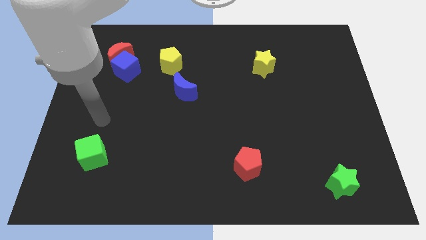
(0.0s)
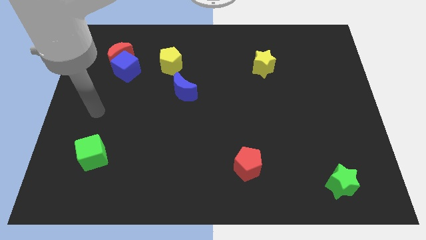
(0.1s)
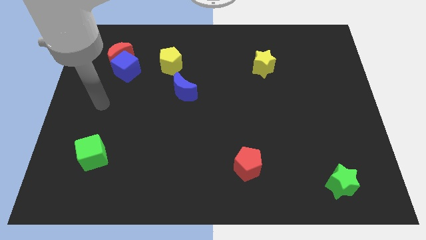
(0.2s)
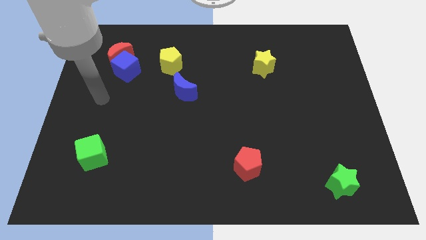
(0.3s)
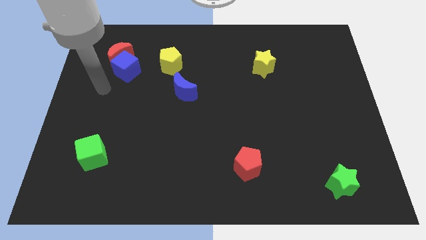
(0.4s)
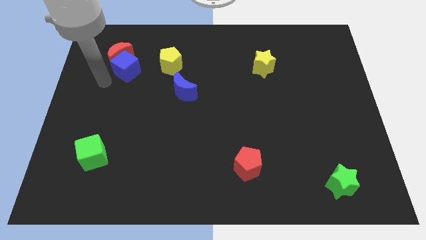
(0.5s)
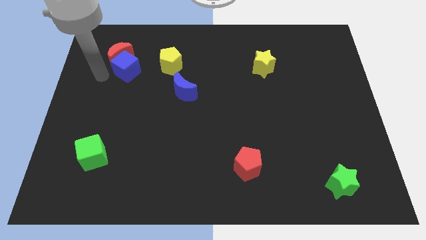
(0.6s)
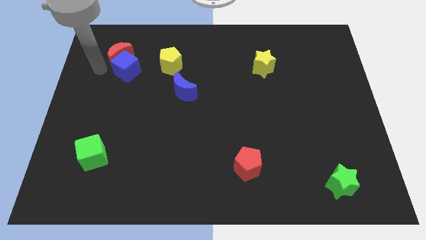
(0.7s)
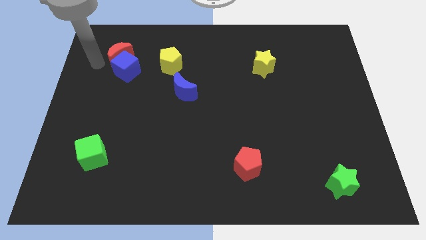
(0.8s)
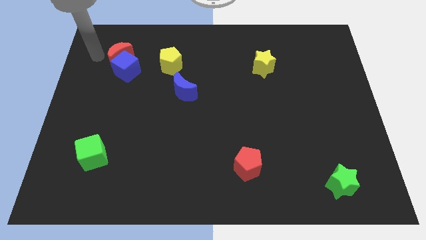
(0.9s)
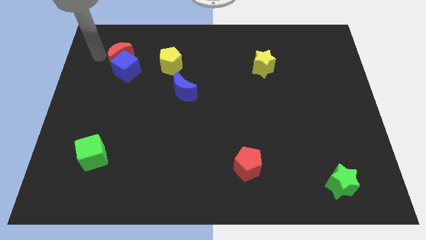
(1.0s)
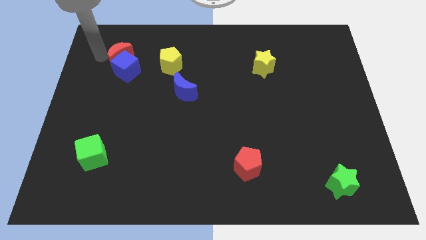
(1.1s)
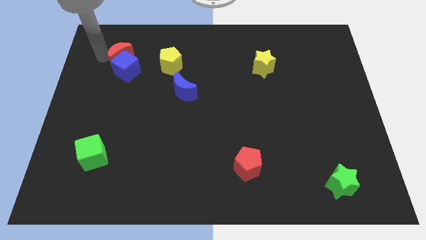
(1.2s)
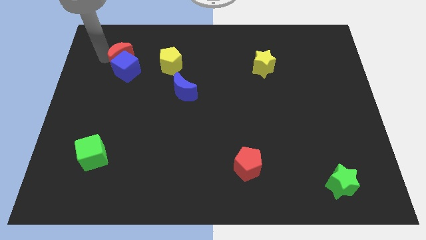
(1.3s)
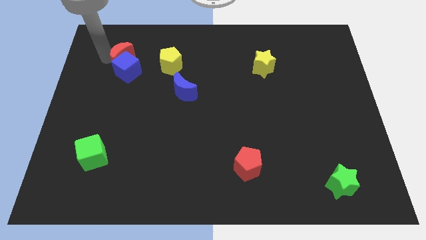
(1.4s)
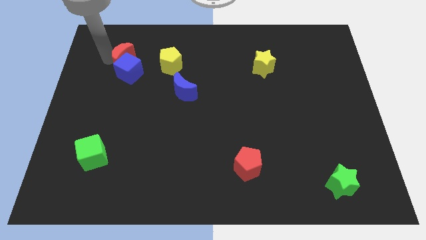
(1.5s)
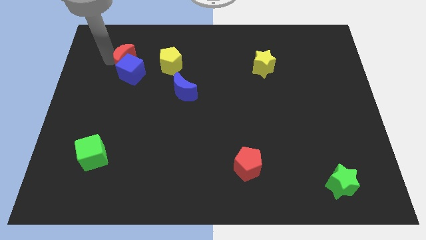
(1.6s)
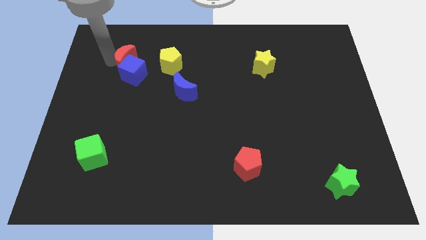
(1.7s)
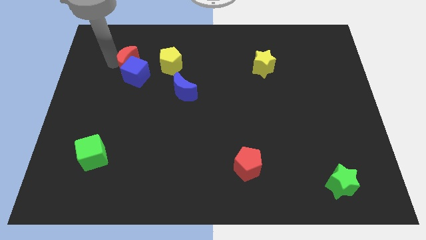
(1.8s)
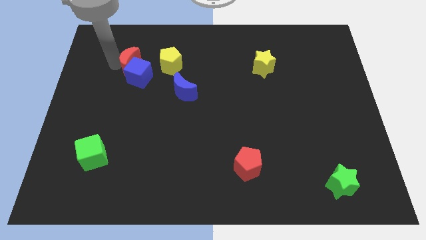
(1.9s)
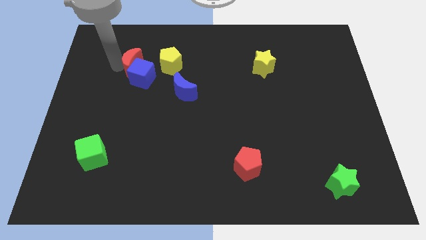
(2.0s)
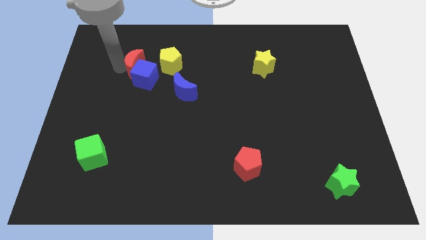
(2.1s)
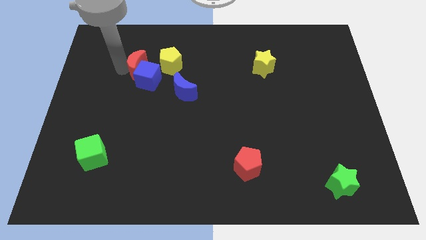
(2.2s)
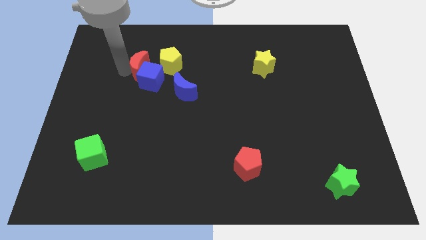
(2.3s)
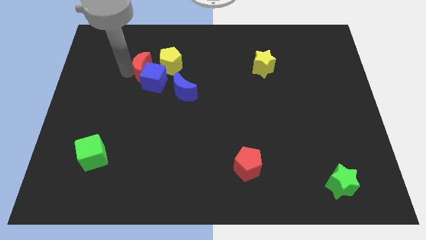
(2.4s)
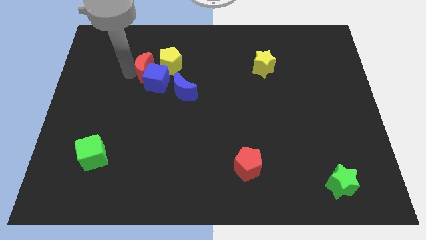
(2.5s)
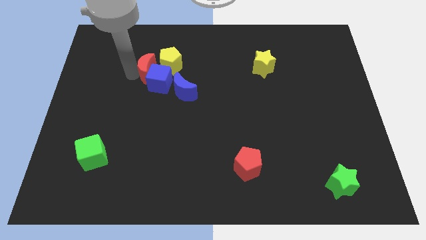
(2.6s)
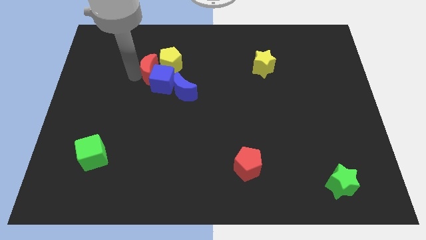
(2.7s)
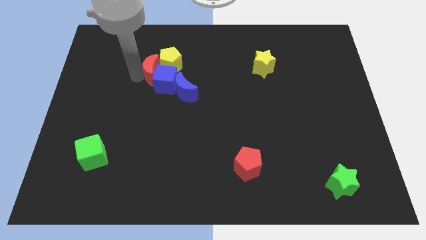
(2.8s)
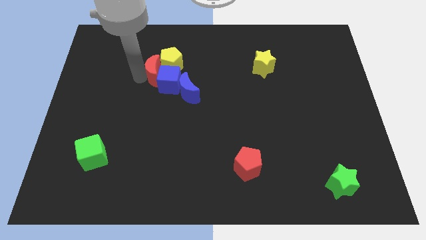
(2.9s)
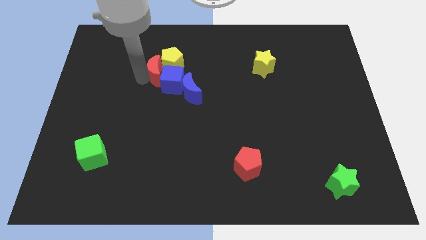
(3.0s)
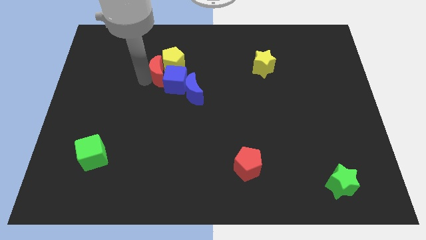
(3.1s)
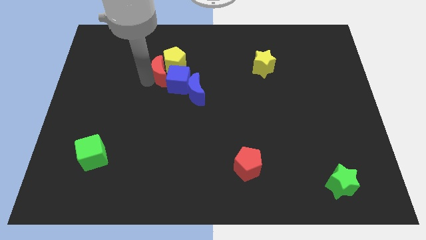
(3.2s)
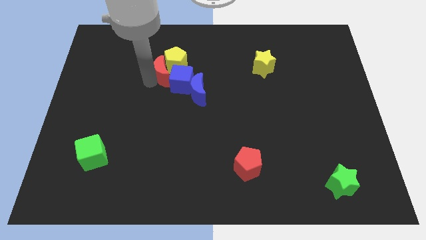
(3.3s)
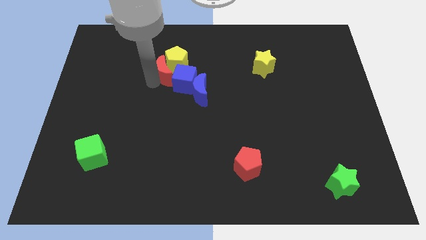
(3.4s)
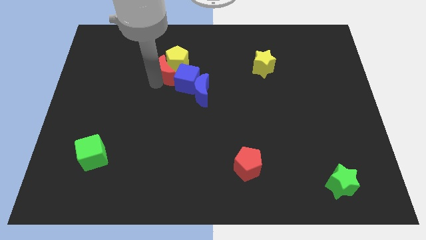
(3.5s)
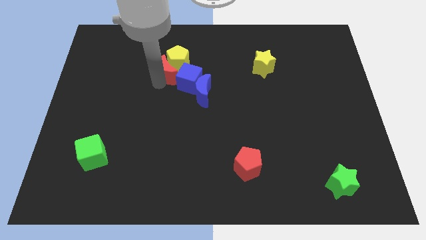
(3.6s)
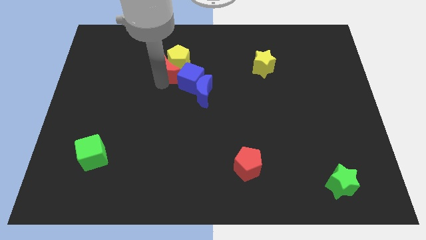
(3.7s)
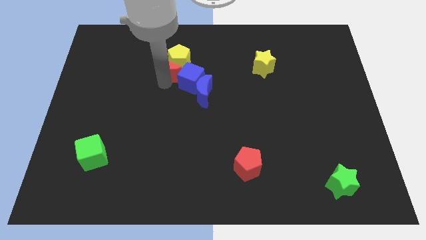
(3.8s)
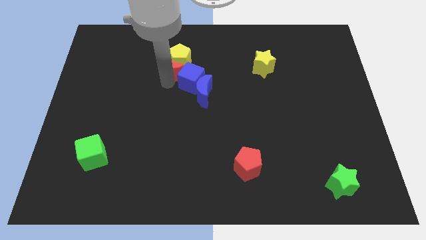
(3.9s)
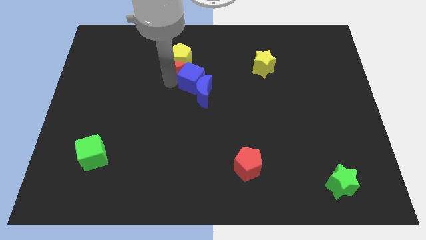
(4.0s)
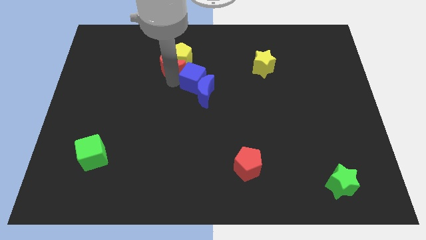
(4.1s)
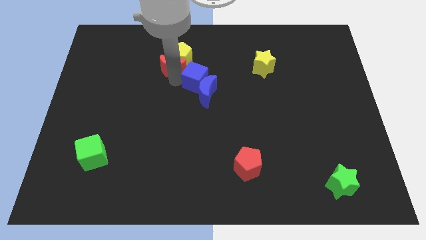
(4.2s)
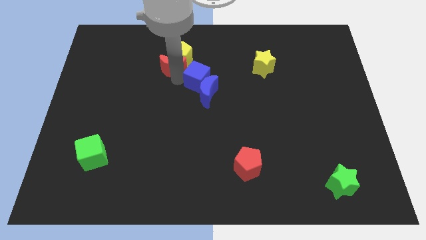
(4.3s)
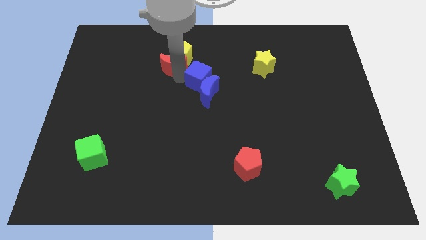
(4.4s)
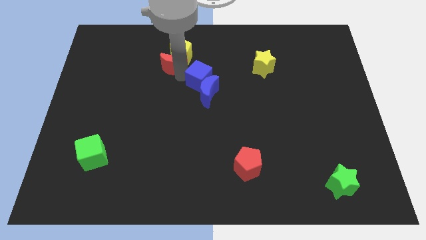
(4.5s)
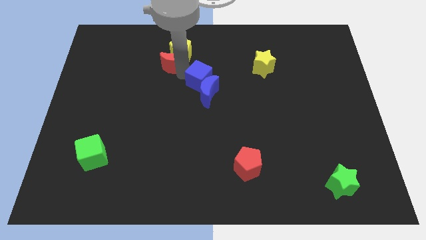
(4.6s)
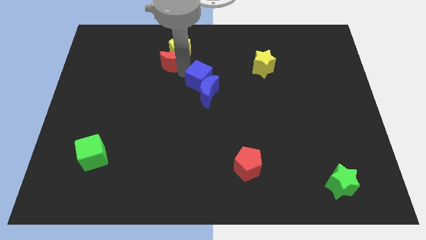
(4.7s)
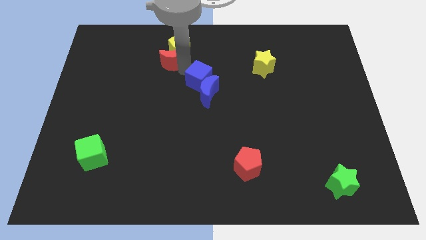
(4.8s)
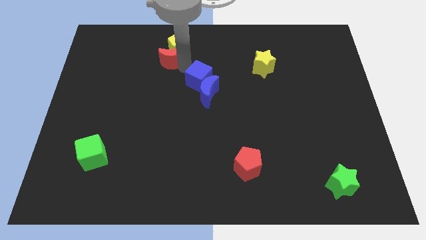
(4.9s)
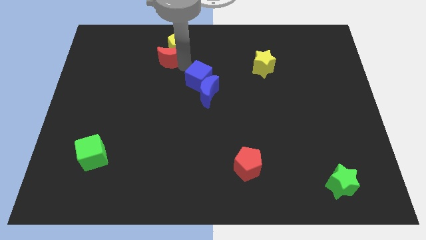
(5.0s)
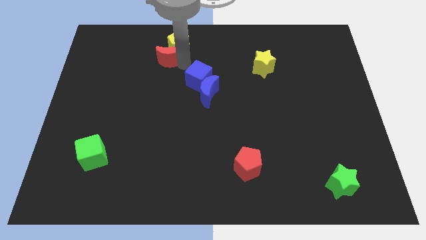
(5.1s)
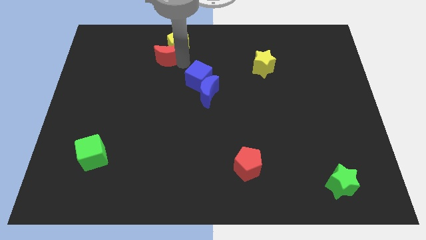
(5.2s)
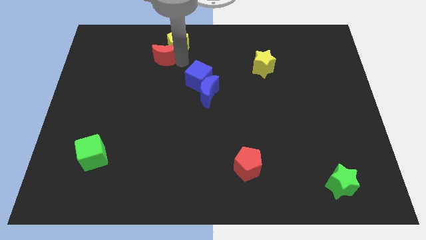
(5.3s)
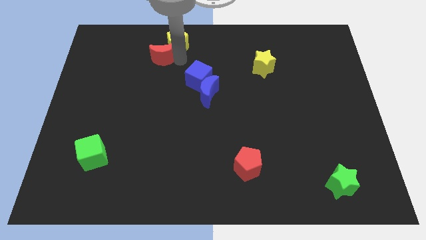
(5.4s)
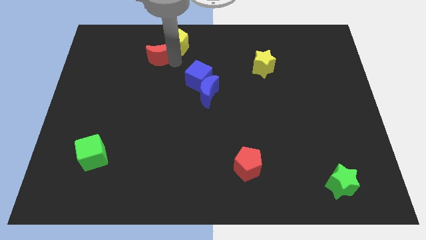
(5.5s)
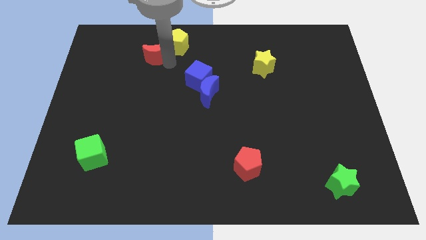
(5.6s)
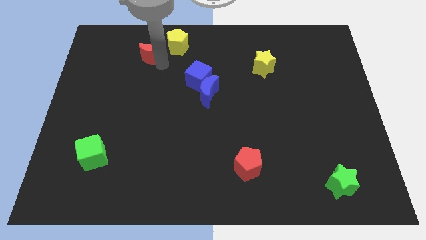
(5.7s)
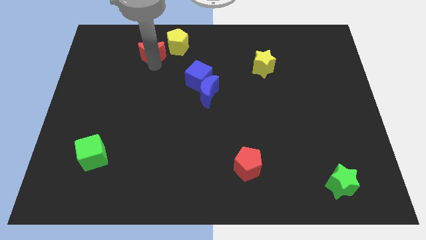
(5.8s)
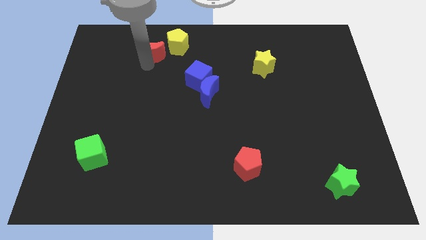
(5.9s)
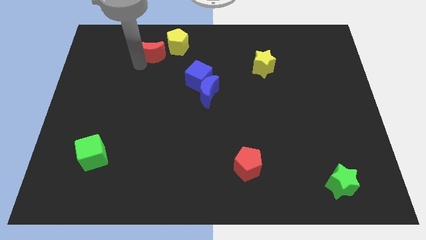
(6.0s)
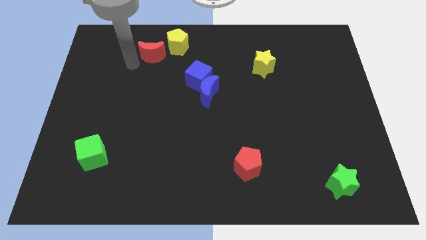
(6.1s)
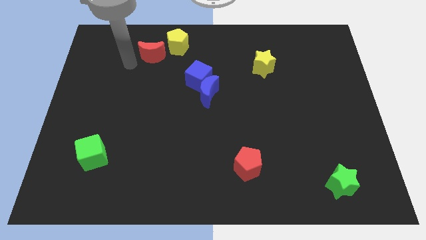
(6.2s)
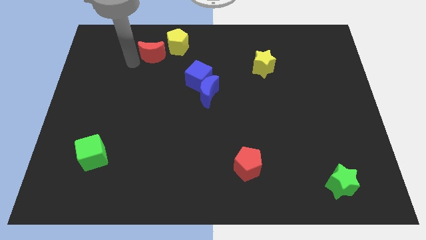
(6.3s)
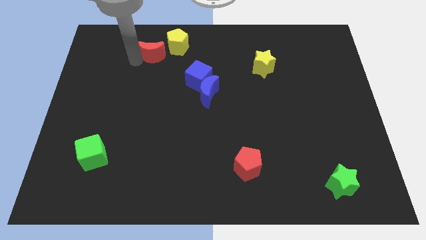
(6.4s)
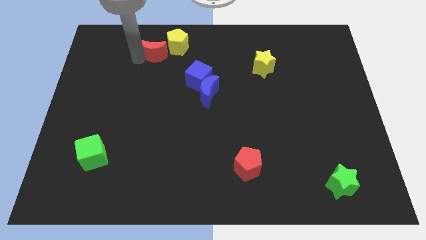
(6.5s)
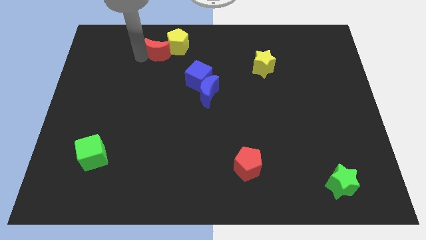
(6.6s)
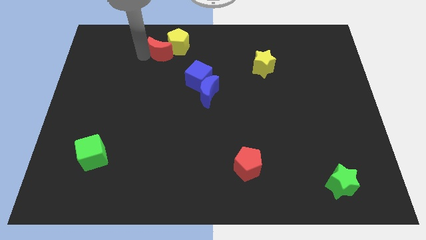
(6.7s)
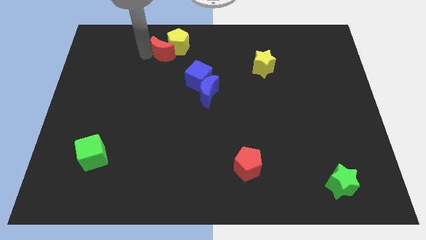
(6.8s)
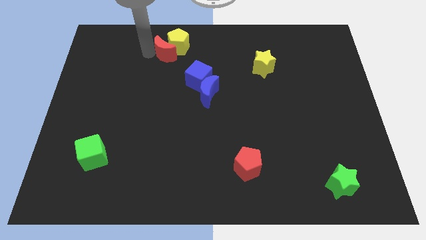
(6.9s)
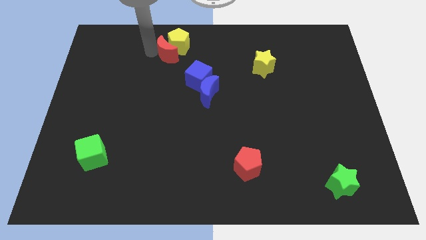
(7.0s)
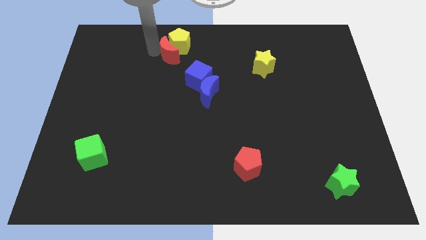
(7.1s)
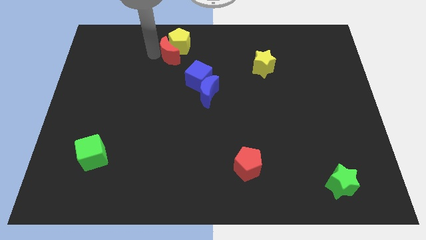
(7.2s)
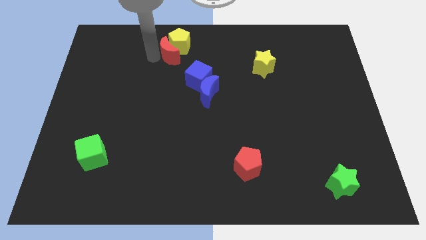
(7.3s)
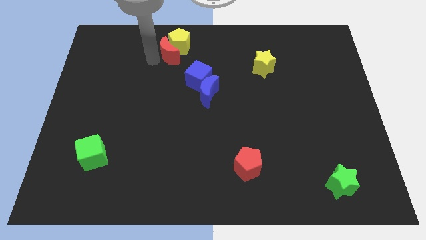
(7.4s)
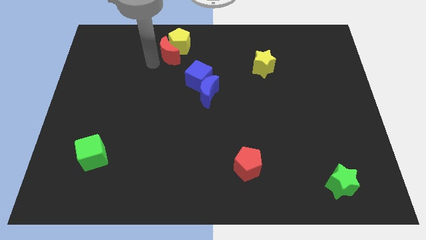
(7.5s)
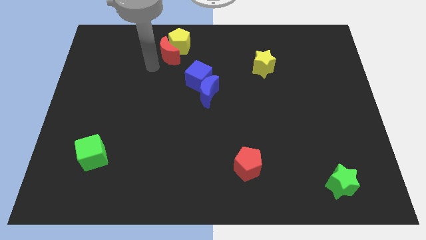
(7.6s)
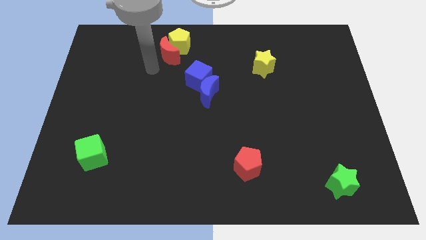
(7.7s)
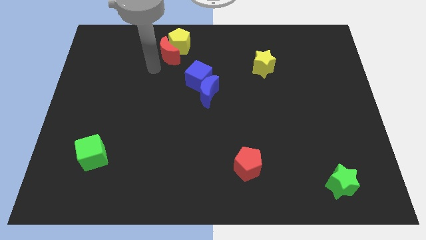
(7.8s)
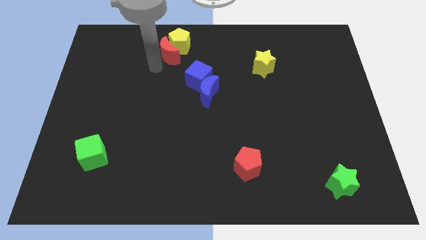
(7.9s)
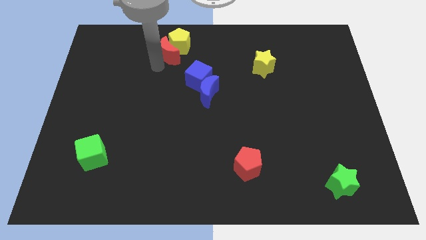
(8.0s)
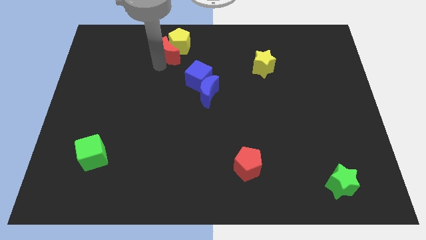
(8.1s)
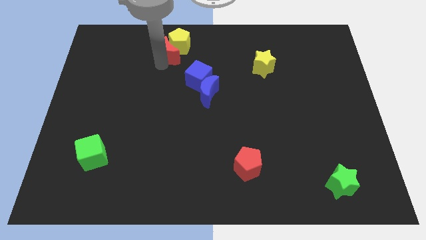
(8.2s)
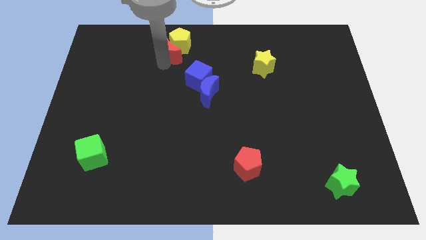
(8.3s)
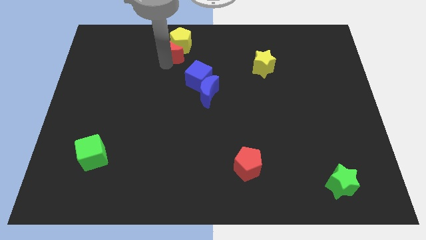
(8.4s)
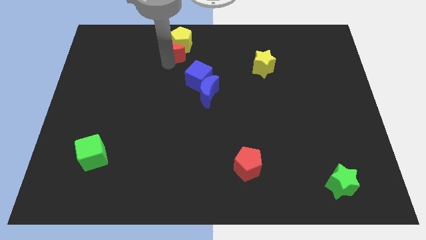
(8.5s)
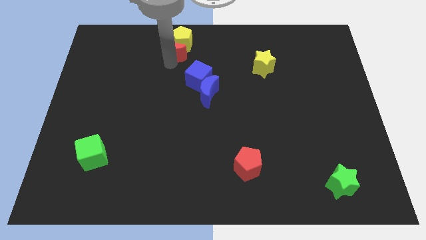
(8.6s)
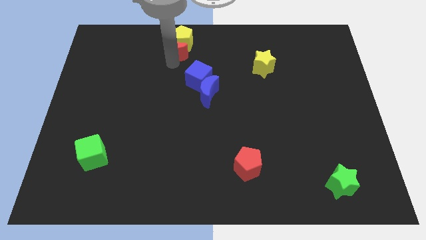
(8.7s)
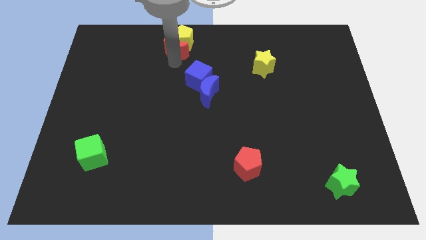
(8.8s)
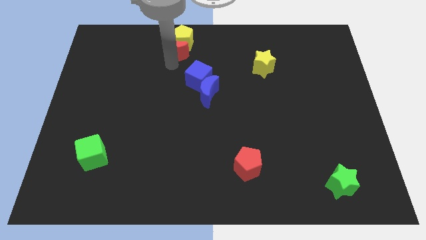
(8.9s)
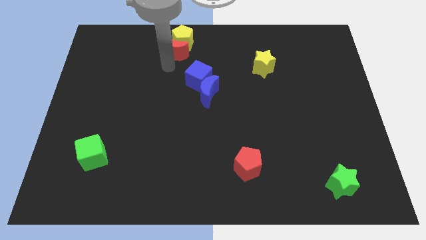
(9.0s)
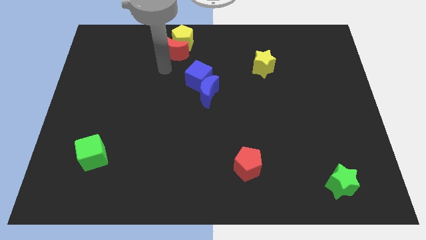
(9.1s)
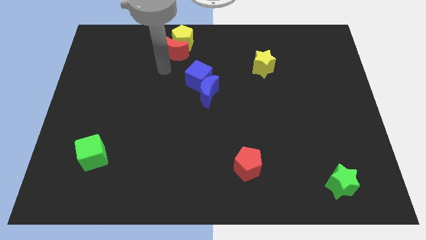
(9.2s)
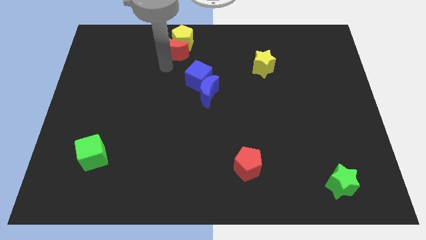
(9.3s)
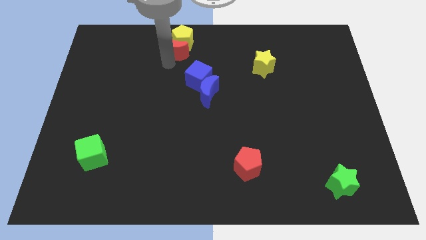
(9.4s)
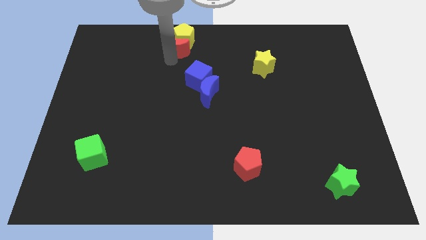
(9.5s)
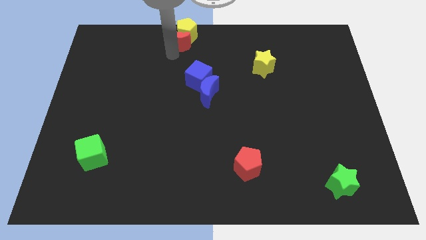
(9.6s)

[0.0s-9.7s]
push the red moon to the top
